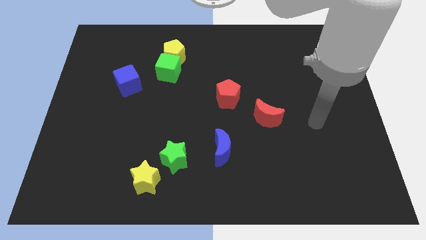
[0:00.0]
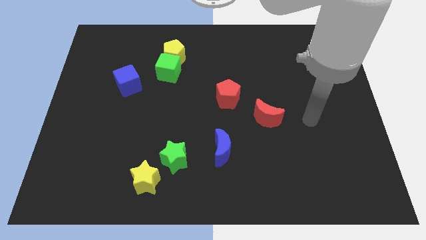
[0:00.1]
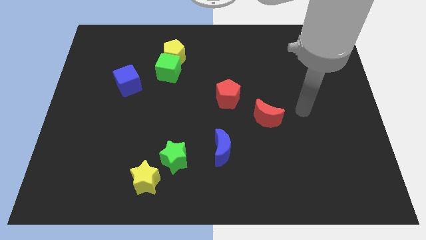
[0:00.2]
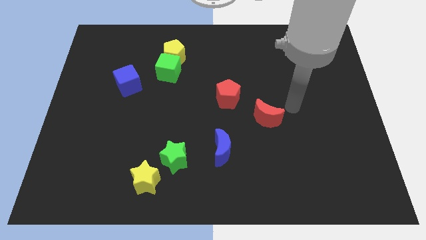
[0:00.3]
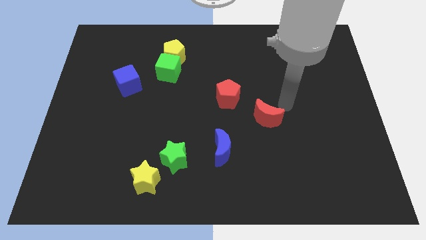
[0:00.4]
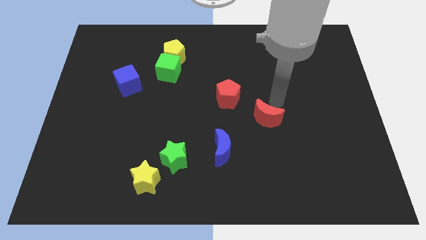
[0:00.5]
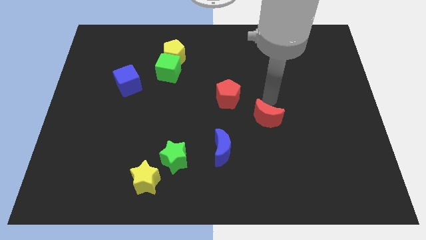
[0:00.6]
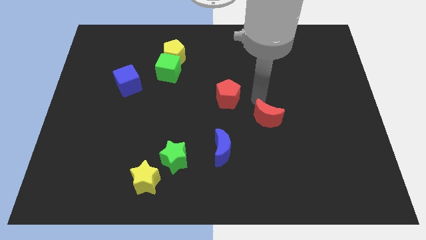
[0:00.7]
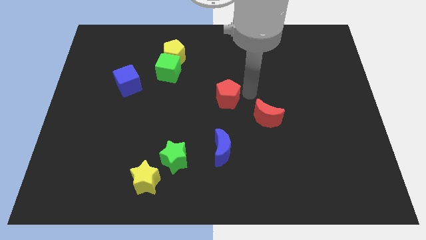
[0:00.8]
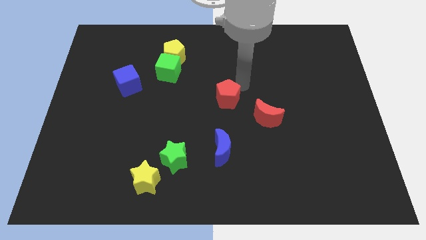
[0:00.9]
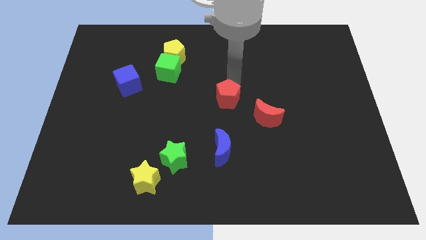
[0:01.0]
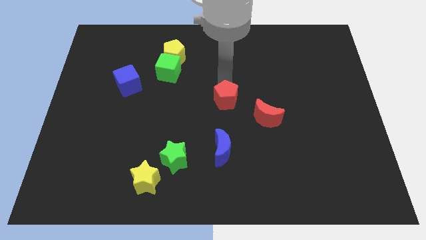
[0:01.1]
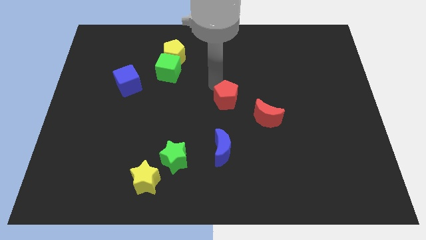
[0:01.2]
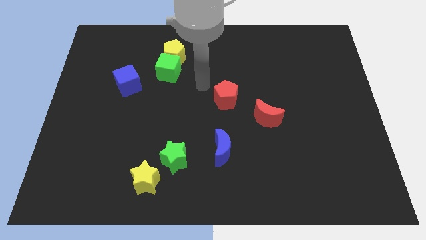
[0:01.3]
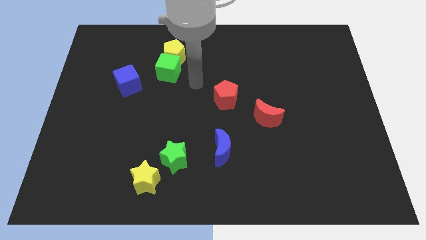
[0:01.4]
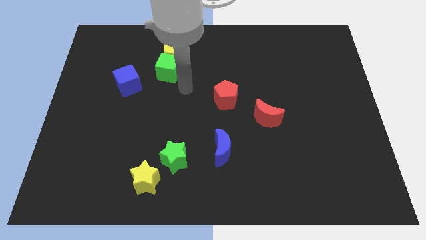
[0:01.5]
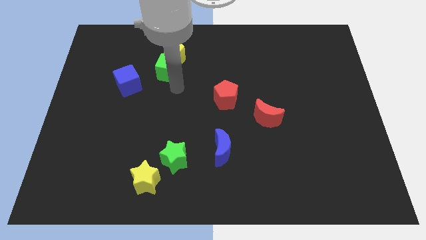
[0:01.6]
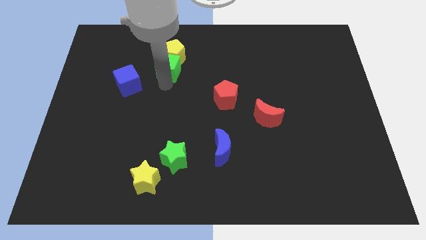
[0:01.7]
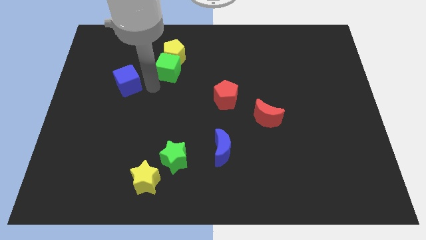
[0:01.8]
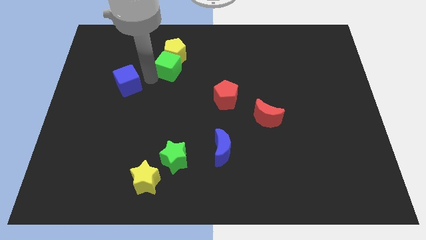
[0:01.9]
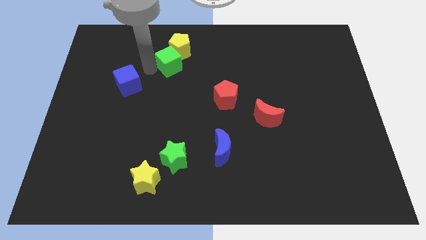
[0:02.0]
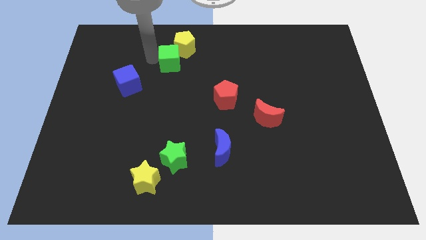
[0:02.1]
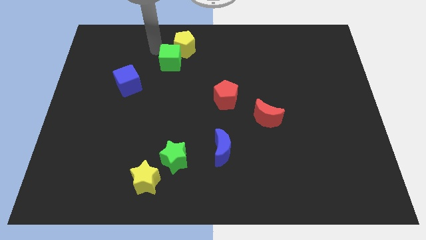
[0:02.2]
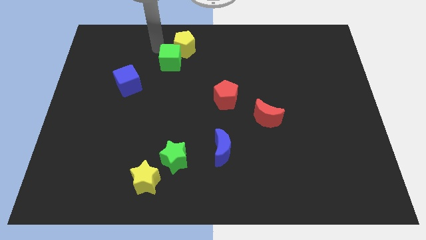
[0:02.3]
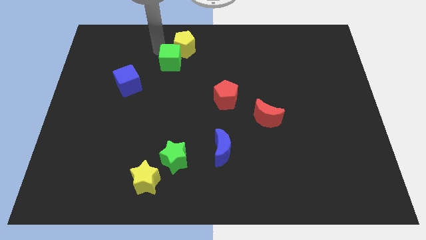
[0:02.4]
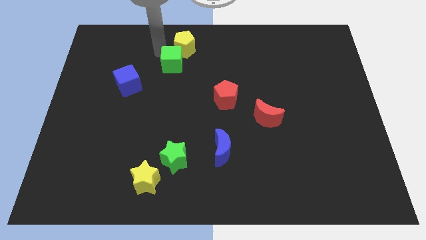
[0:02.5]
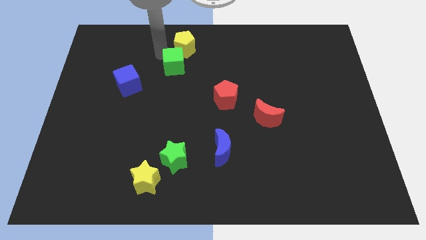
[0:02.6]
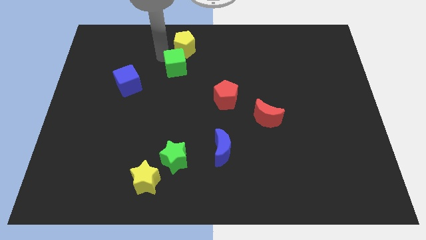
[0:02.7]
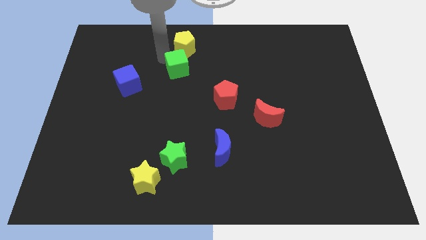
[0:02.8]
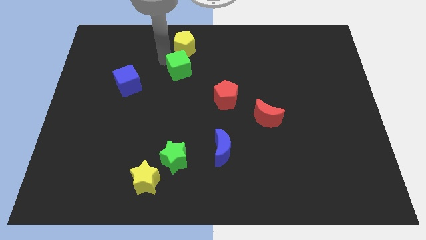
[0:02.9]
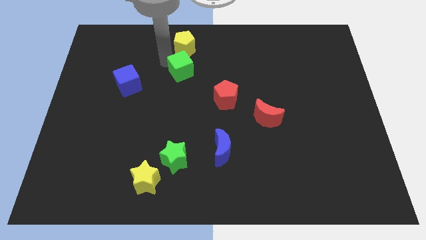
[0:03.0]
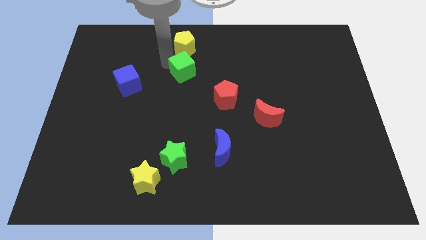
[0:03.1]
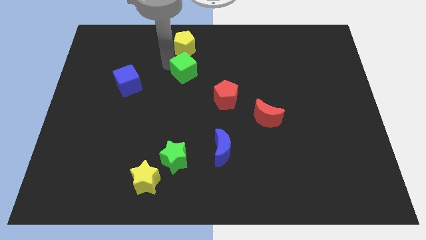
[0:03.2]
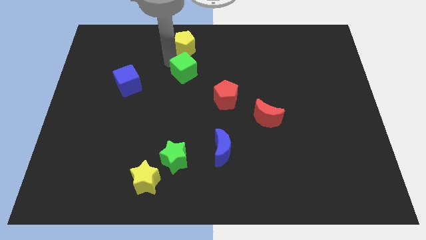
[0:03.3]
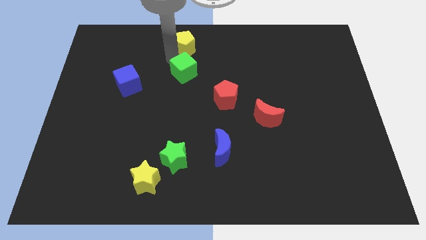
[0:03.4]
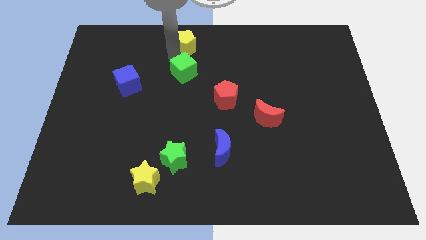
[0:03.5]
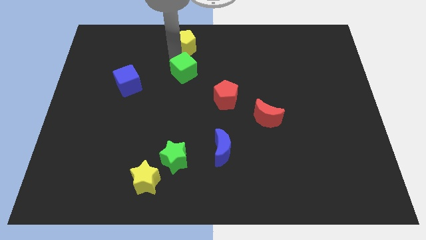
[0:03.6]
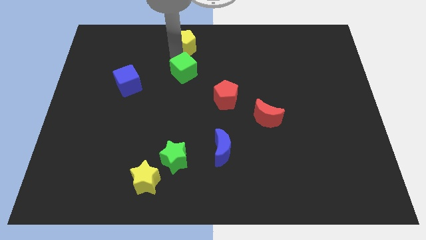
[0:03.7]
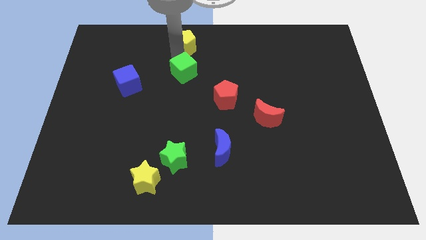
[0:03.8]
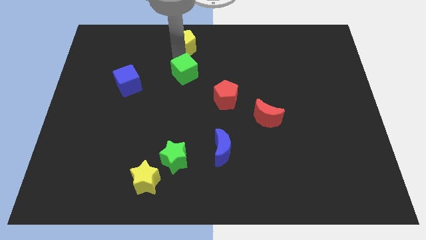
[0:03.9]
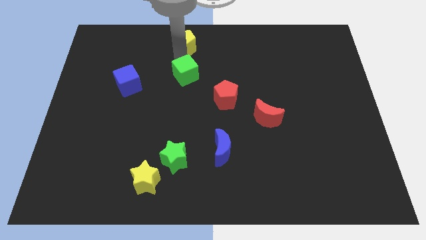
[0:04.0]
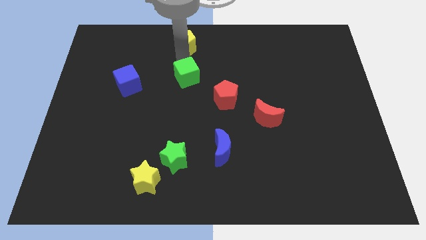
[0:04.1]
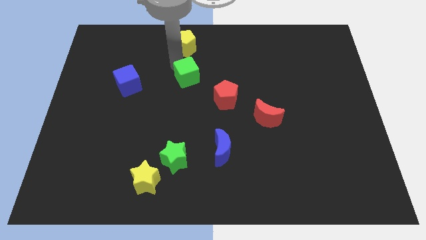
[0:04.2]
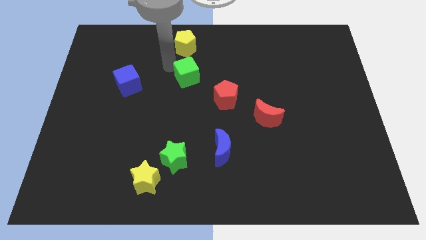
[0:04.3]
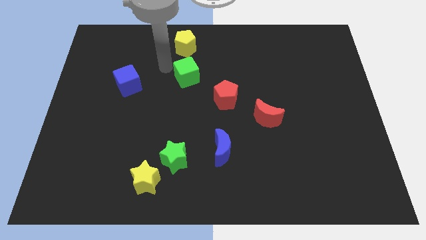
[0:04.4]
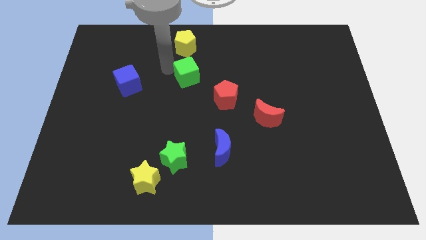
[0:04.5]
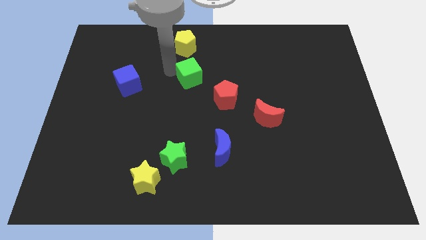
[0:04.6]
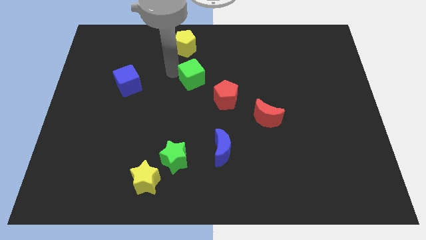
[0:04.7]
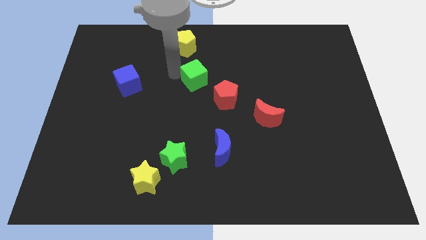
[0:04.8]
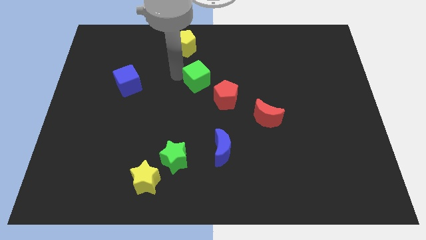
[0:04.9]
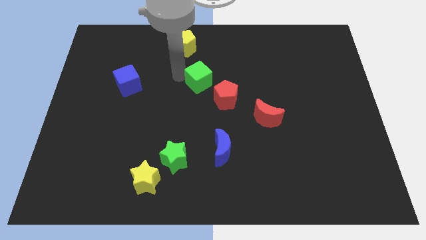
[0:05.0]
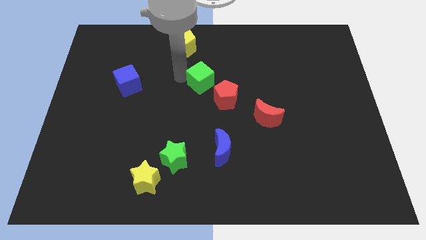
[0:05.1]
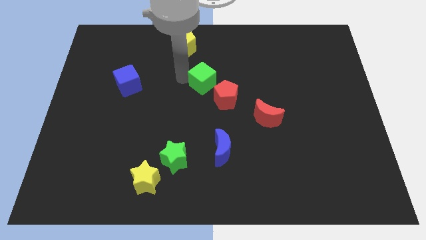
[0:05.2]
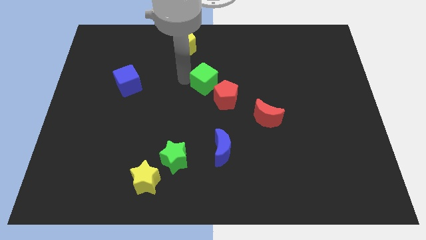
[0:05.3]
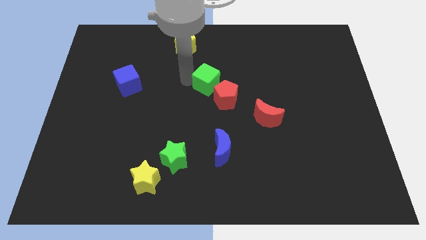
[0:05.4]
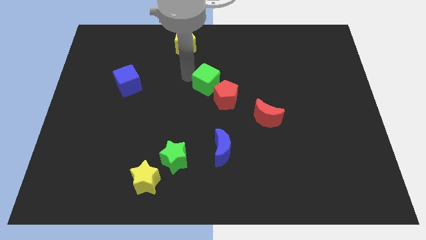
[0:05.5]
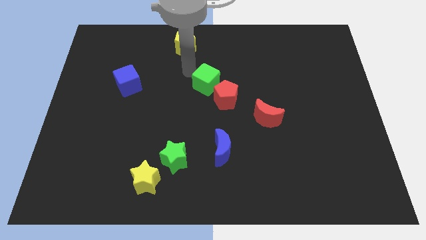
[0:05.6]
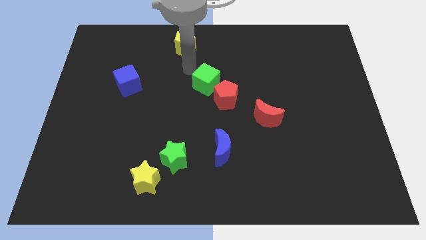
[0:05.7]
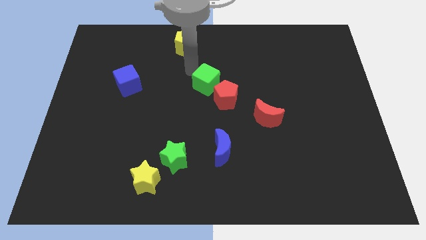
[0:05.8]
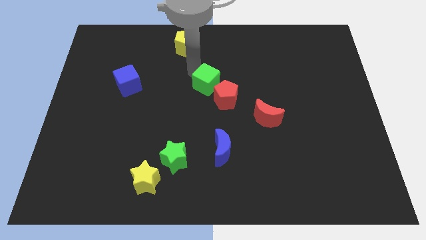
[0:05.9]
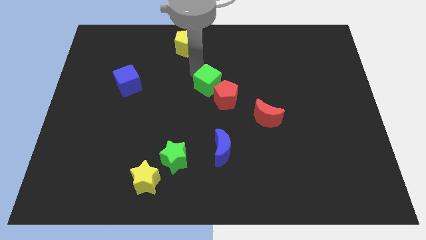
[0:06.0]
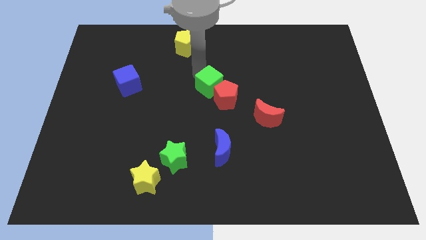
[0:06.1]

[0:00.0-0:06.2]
put the green cube to the red pentagon

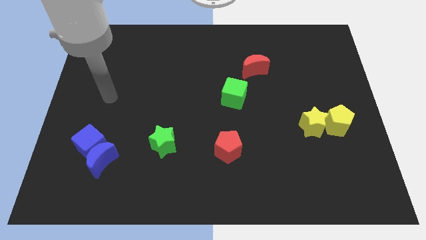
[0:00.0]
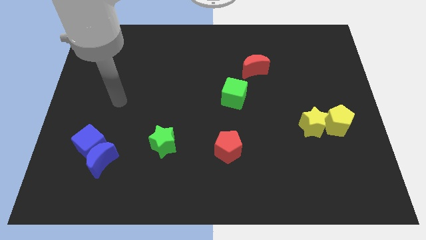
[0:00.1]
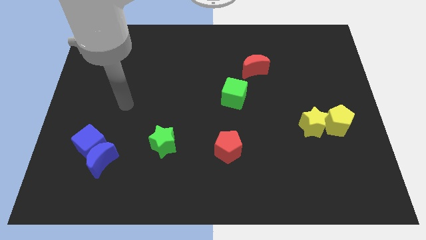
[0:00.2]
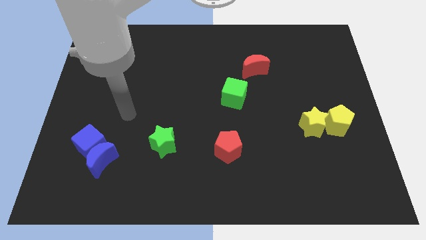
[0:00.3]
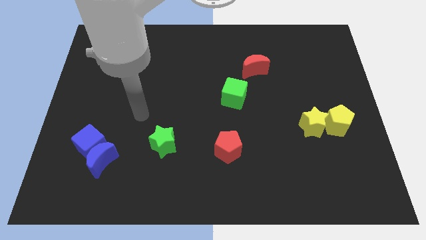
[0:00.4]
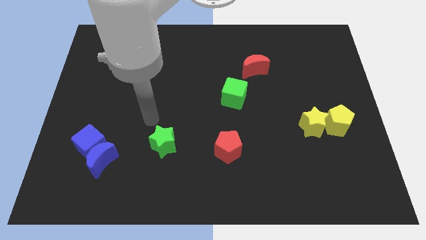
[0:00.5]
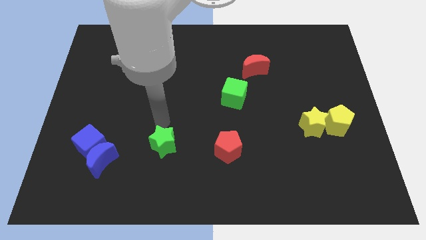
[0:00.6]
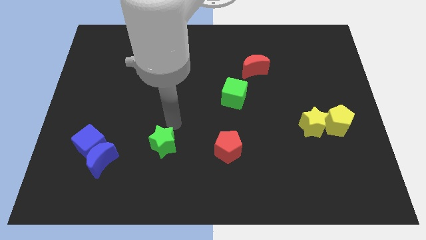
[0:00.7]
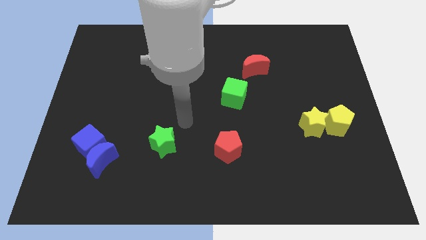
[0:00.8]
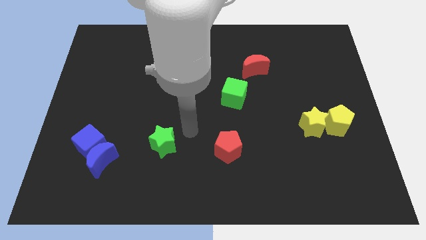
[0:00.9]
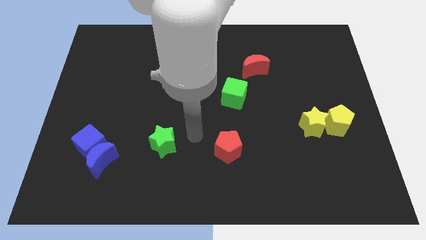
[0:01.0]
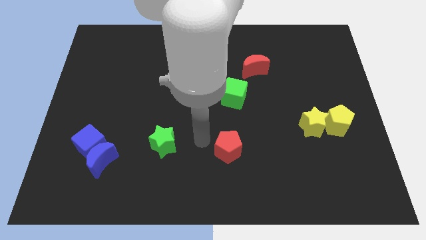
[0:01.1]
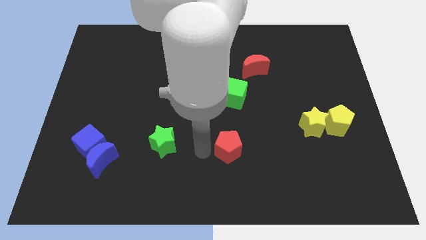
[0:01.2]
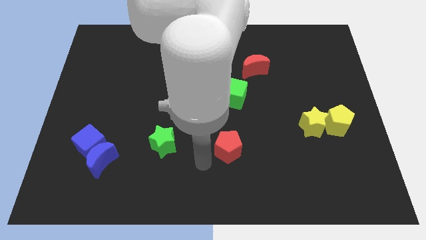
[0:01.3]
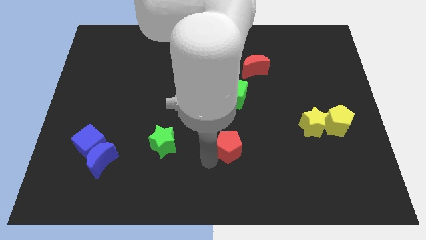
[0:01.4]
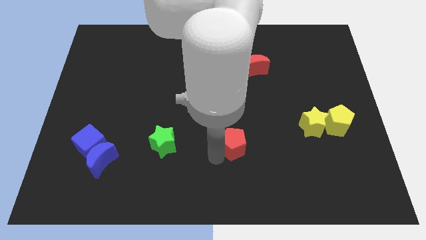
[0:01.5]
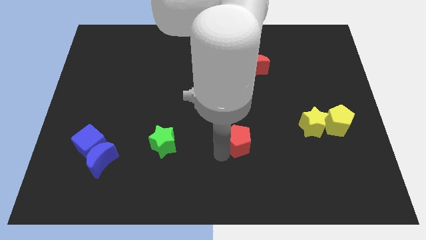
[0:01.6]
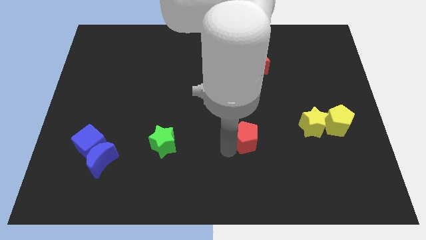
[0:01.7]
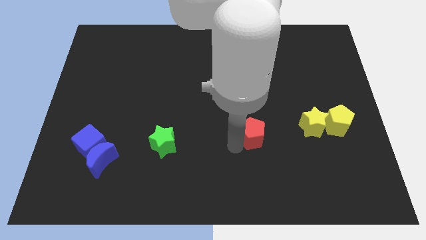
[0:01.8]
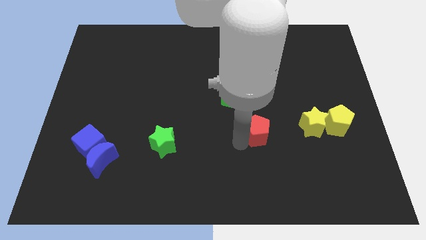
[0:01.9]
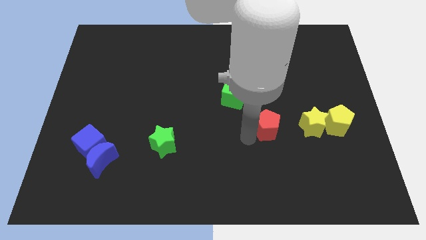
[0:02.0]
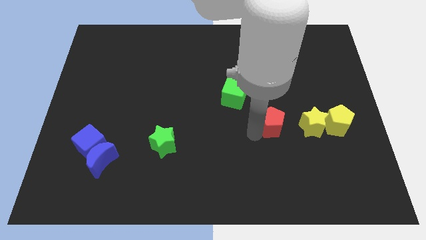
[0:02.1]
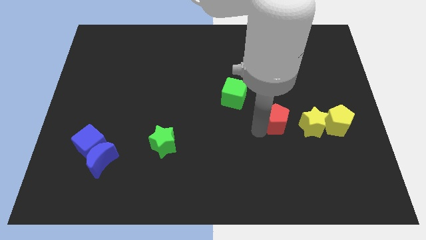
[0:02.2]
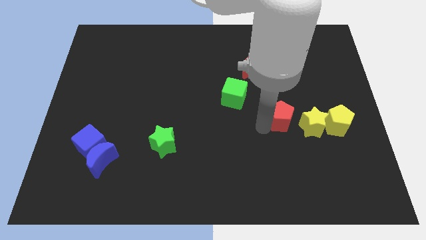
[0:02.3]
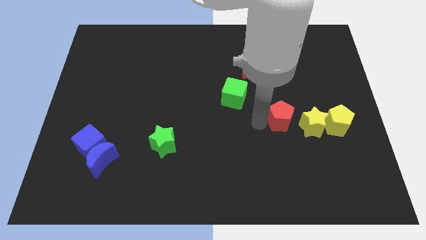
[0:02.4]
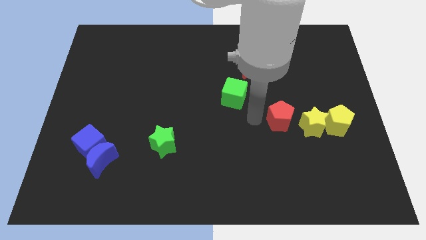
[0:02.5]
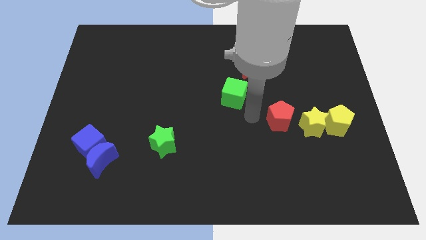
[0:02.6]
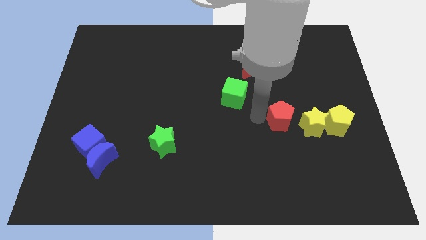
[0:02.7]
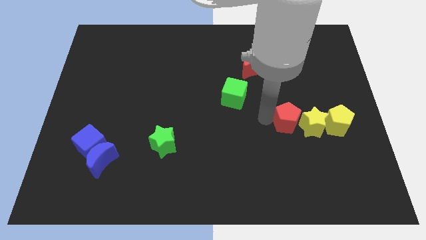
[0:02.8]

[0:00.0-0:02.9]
slide the red pentagon towards the yellow star
